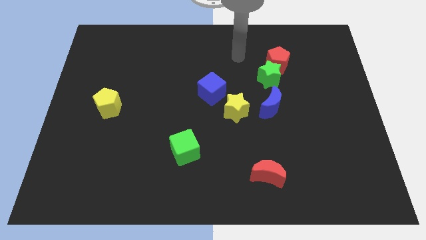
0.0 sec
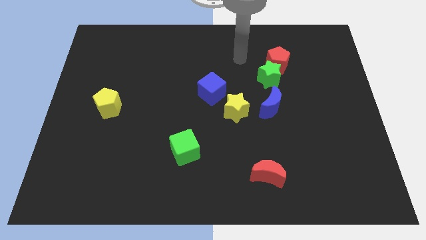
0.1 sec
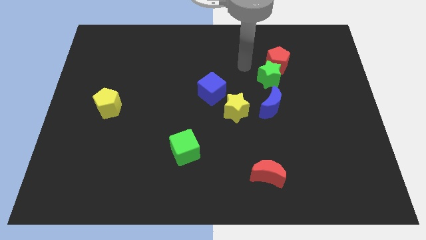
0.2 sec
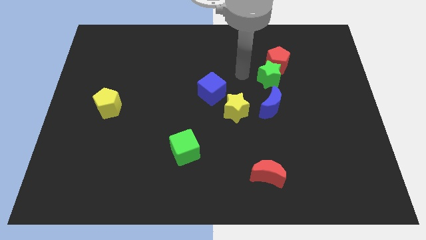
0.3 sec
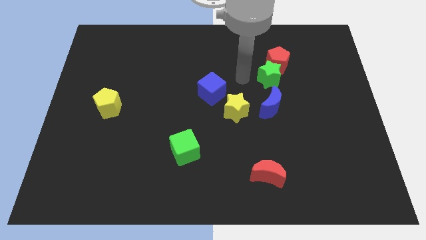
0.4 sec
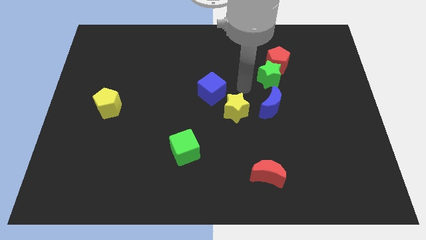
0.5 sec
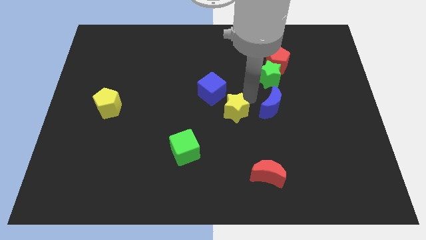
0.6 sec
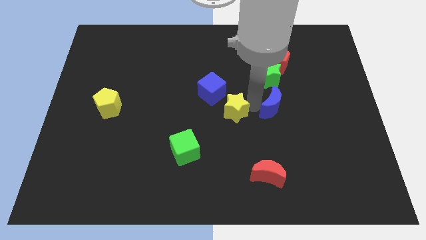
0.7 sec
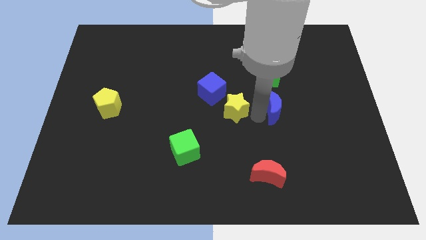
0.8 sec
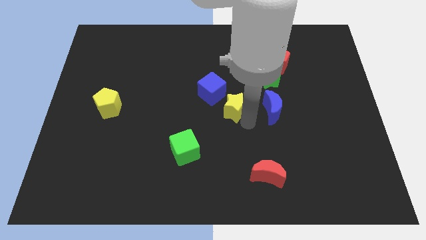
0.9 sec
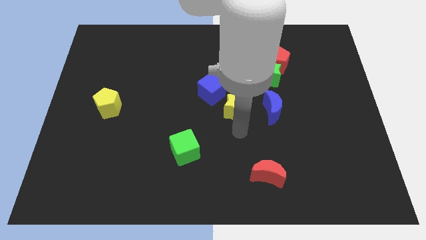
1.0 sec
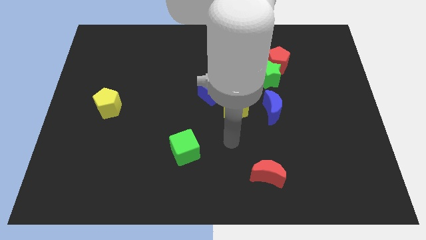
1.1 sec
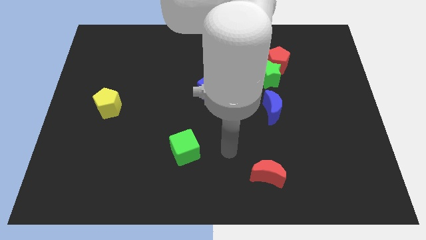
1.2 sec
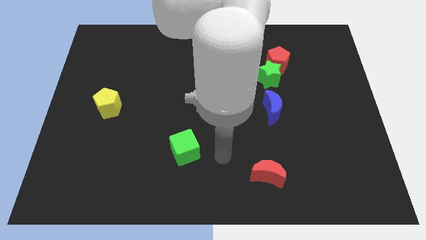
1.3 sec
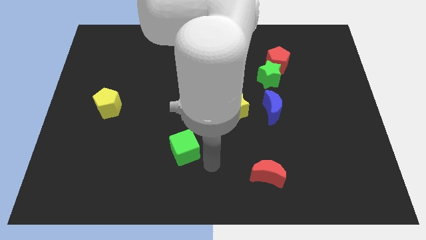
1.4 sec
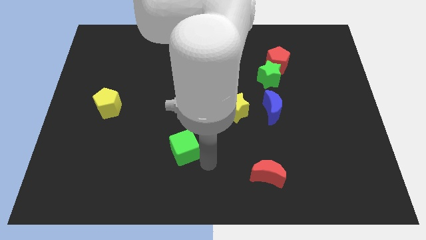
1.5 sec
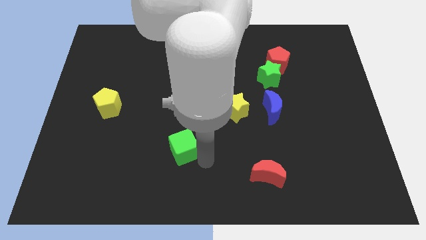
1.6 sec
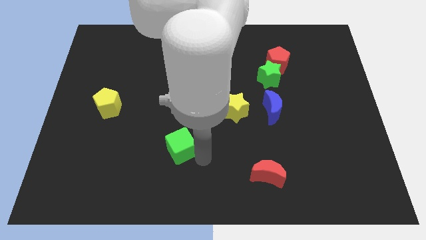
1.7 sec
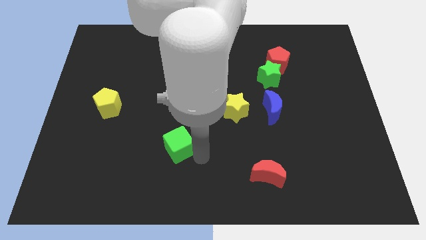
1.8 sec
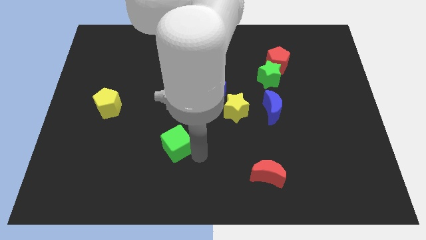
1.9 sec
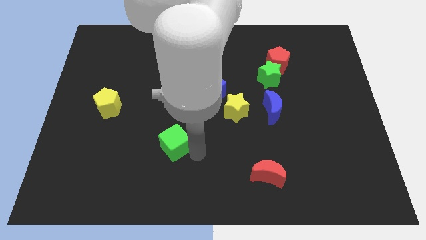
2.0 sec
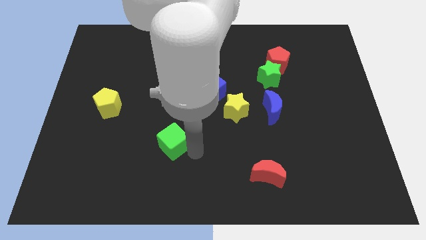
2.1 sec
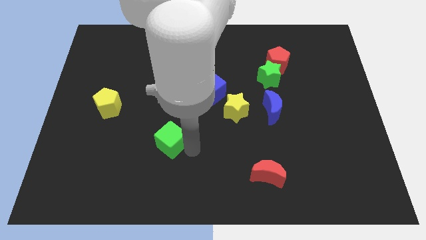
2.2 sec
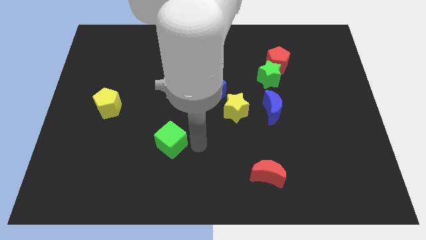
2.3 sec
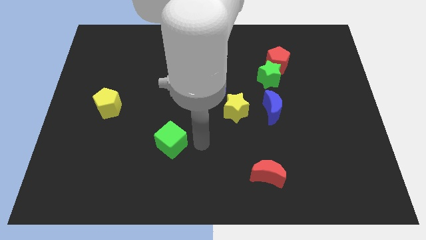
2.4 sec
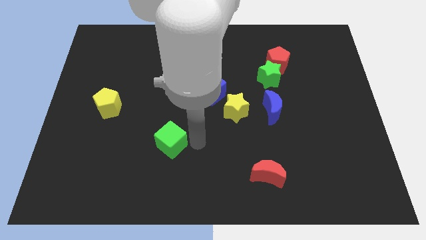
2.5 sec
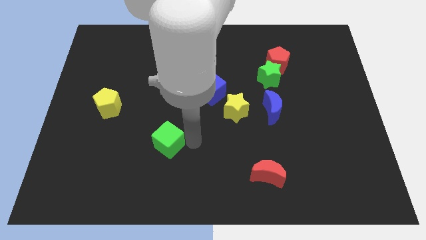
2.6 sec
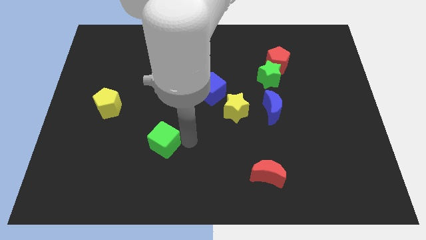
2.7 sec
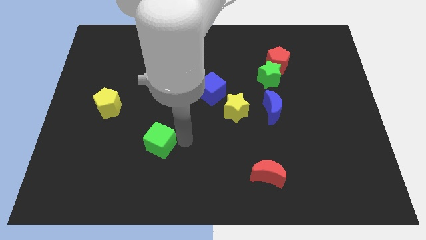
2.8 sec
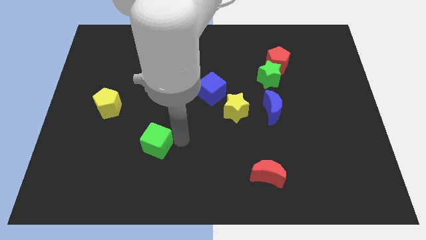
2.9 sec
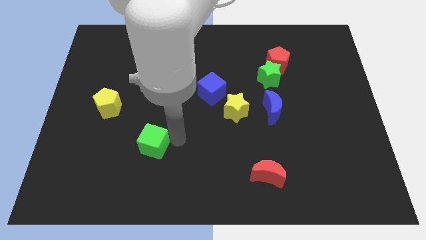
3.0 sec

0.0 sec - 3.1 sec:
push the green cube left slightly

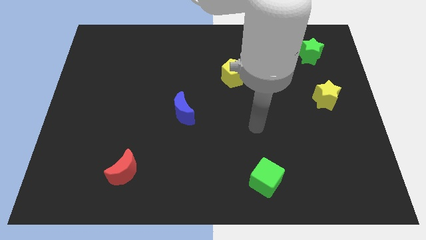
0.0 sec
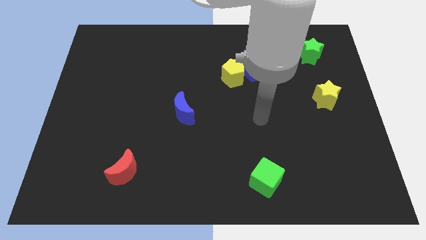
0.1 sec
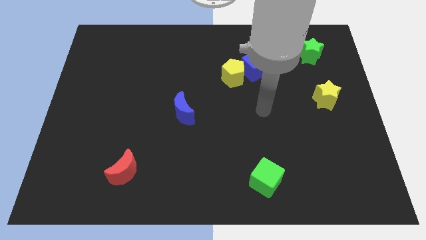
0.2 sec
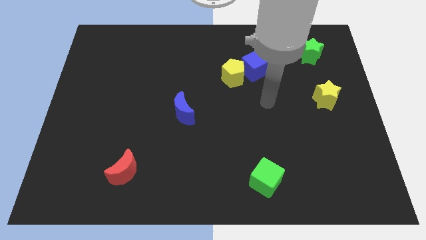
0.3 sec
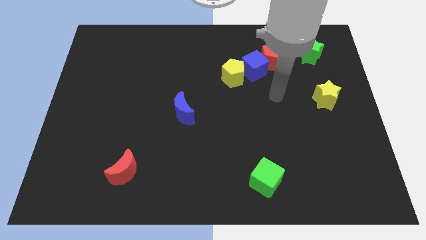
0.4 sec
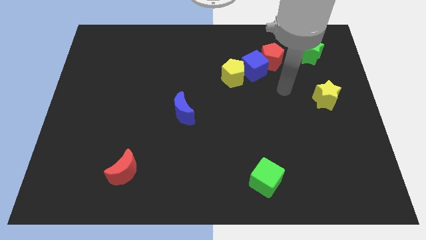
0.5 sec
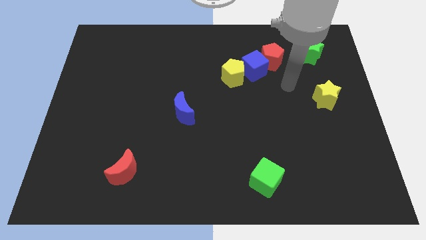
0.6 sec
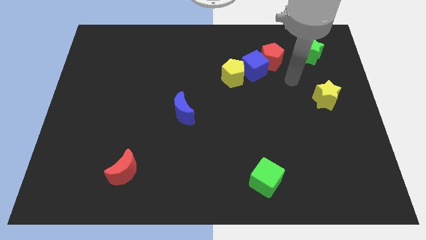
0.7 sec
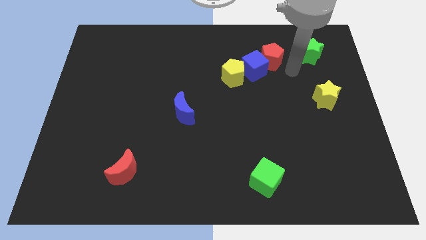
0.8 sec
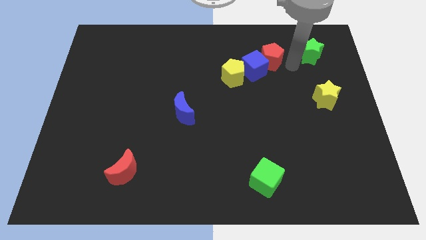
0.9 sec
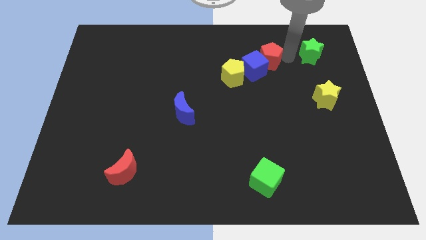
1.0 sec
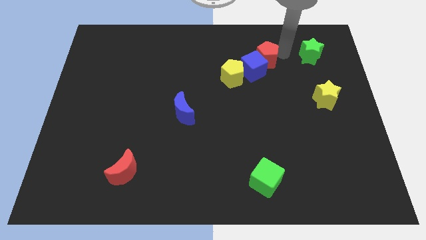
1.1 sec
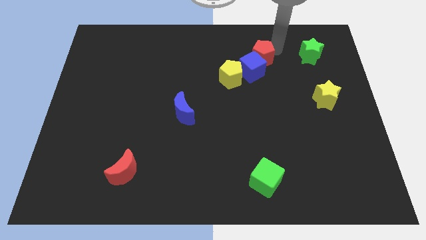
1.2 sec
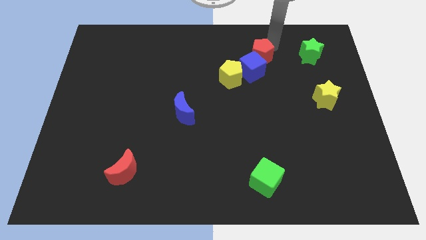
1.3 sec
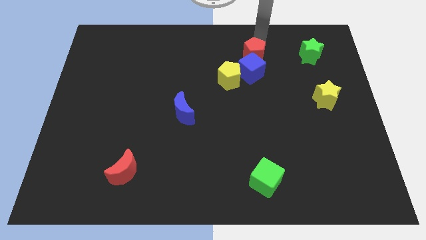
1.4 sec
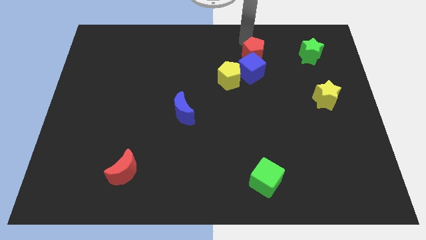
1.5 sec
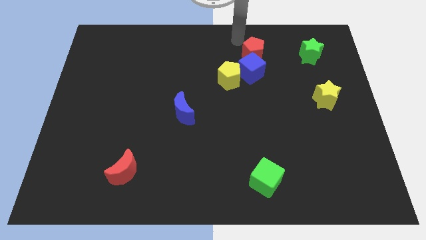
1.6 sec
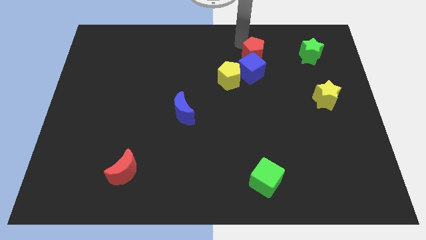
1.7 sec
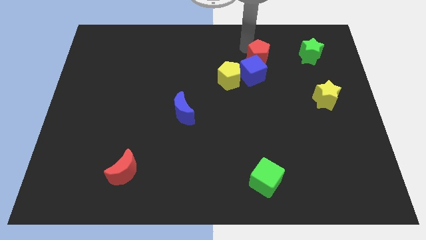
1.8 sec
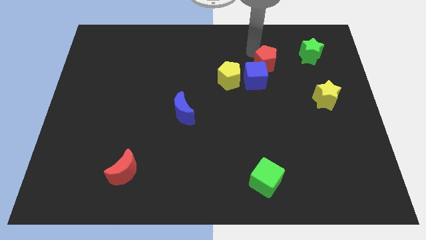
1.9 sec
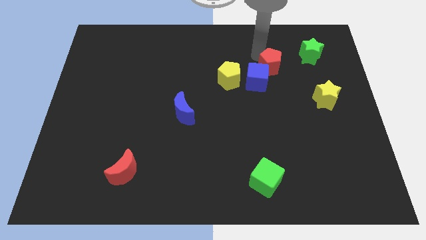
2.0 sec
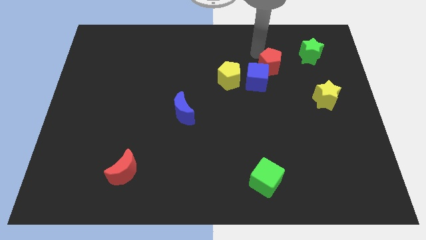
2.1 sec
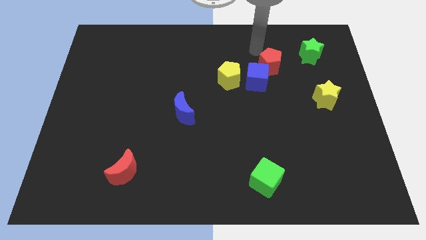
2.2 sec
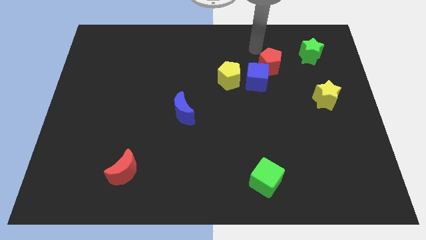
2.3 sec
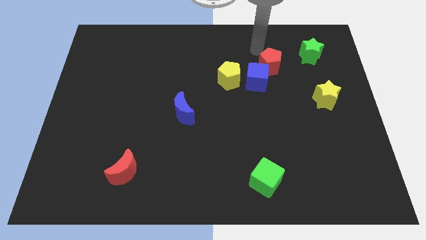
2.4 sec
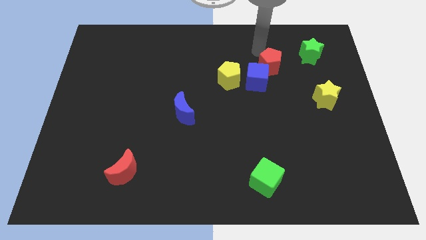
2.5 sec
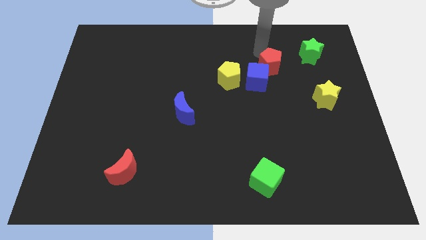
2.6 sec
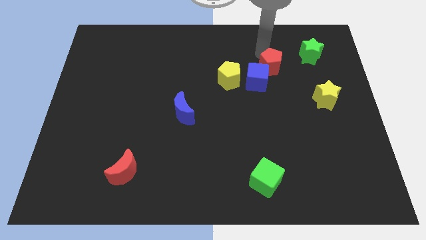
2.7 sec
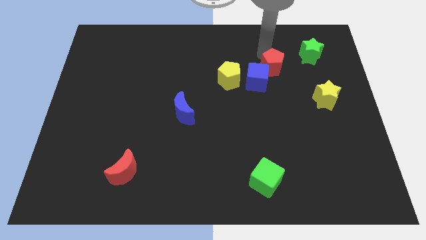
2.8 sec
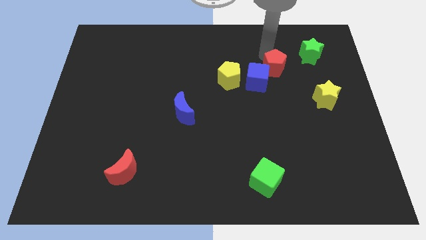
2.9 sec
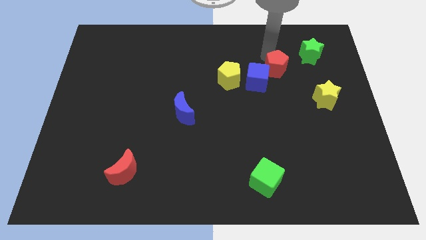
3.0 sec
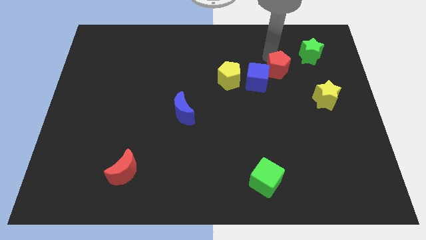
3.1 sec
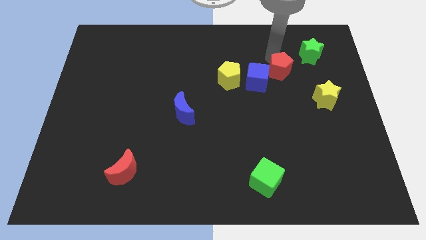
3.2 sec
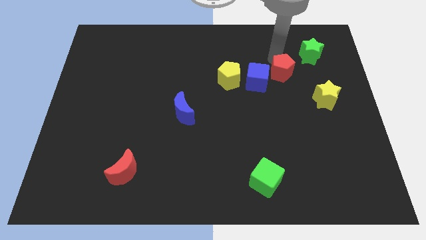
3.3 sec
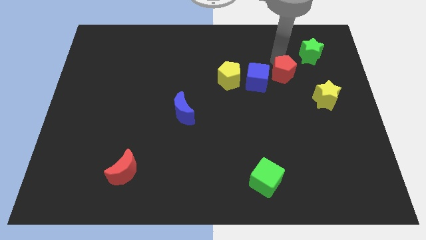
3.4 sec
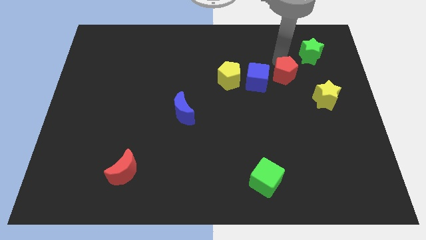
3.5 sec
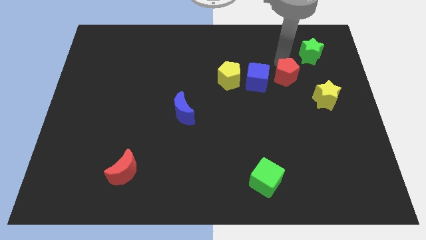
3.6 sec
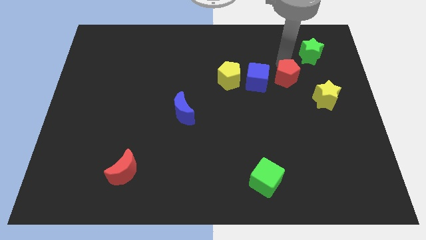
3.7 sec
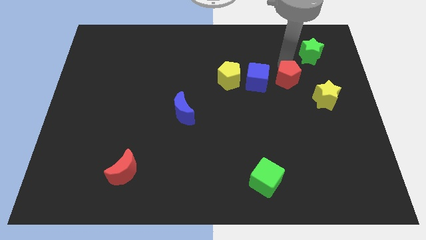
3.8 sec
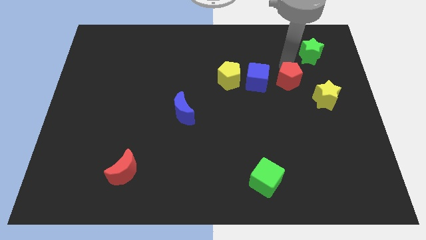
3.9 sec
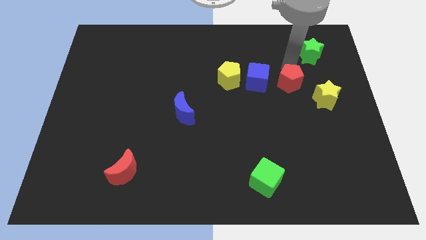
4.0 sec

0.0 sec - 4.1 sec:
slide the red pentagon somewhat downwards

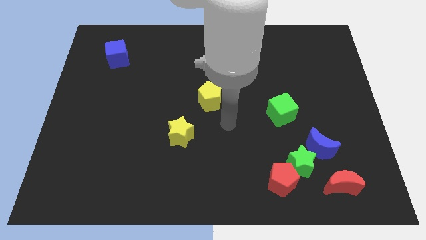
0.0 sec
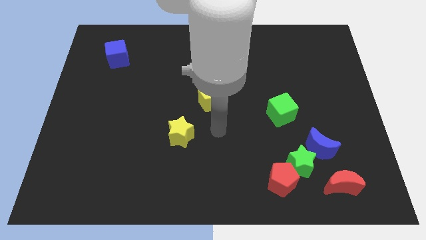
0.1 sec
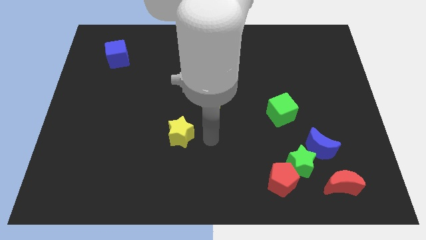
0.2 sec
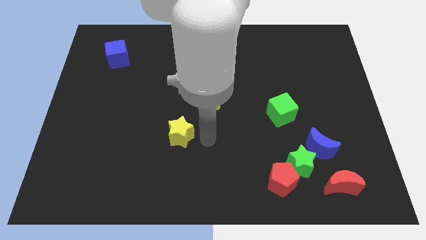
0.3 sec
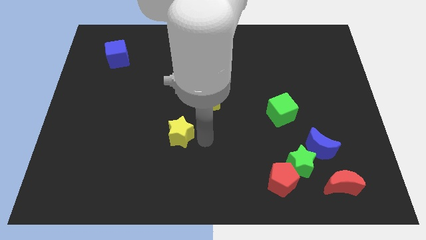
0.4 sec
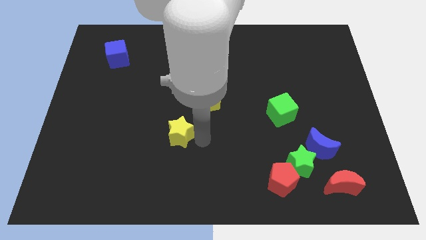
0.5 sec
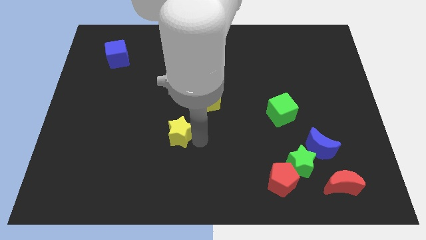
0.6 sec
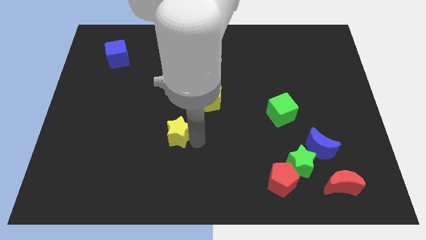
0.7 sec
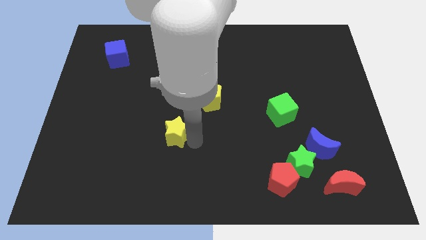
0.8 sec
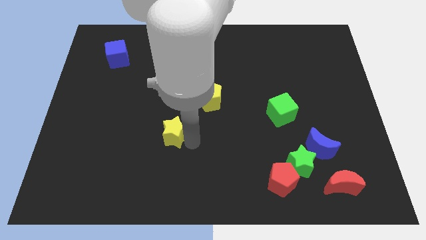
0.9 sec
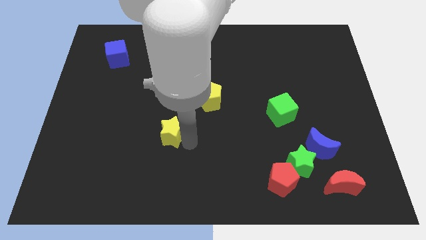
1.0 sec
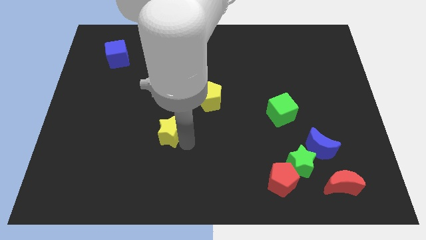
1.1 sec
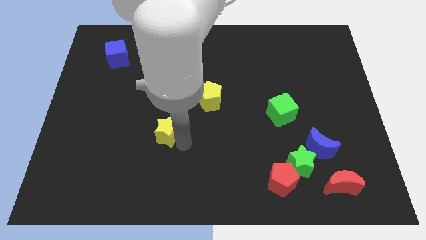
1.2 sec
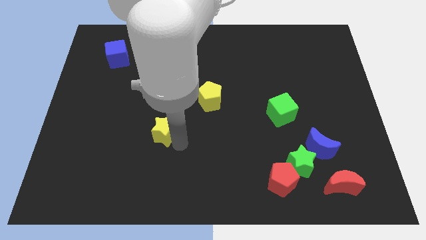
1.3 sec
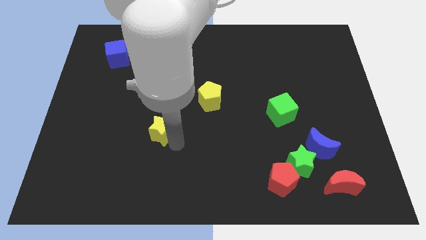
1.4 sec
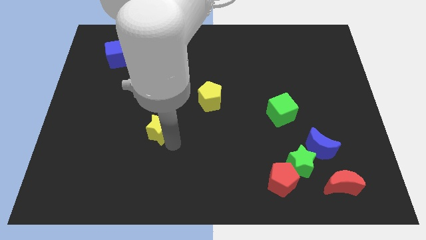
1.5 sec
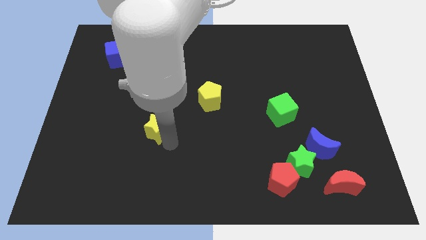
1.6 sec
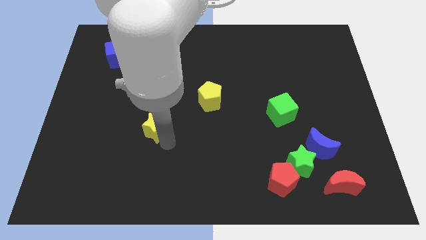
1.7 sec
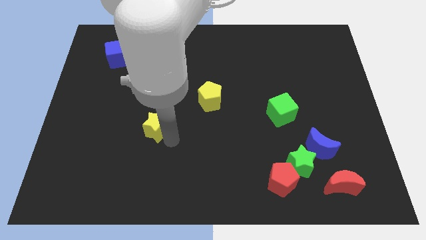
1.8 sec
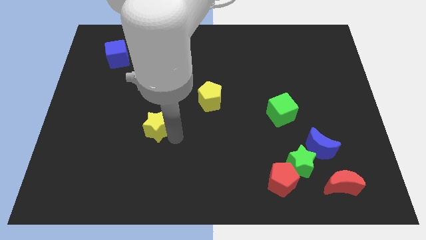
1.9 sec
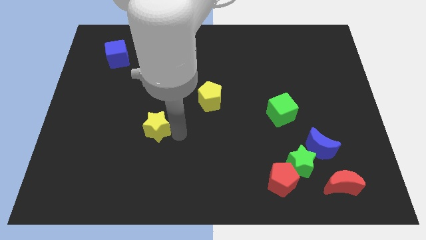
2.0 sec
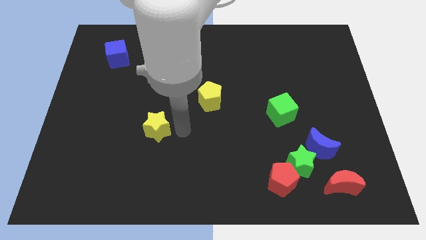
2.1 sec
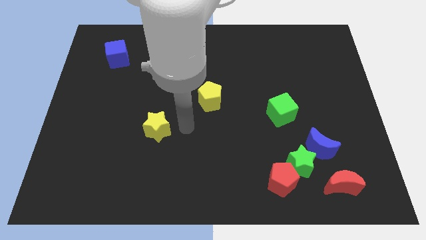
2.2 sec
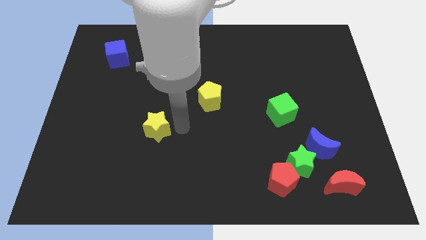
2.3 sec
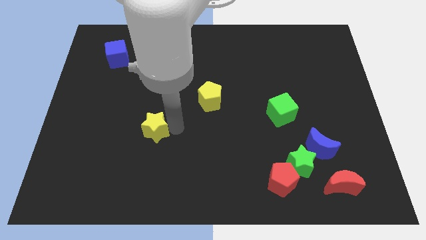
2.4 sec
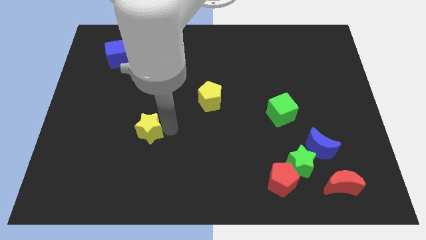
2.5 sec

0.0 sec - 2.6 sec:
slightly slide the yellow star to the left
